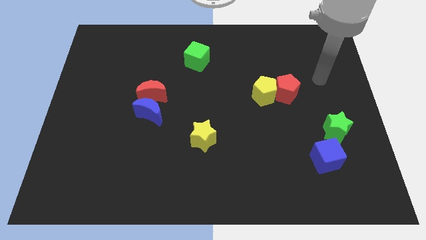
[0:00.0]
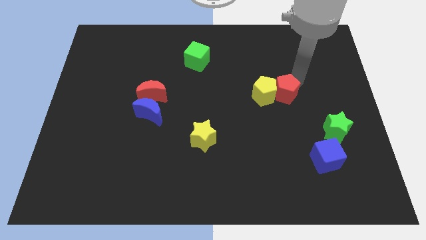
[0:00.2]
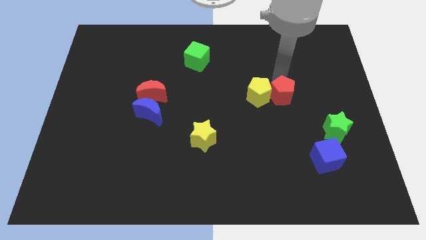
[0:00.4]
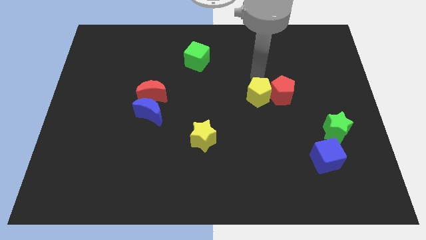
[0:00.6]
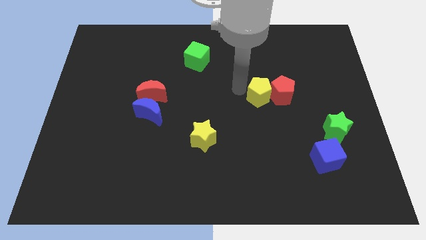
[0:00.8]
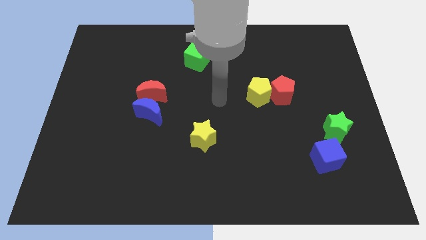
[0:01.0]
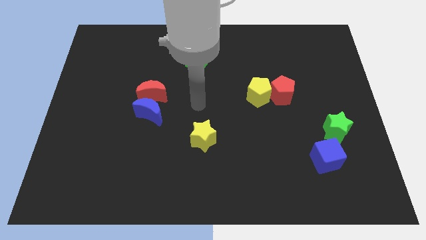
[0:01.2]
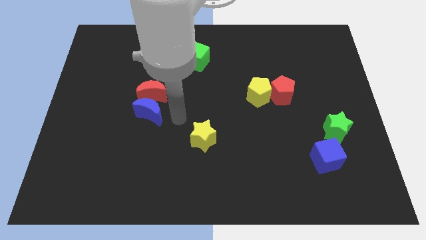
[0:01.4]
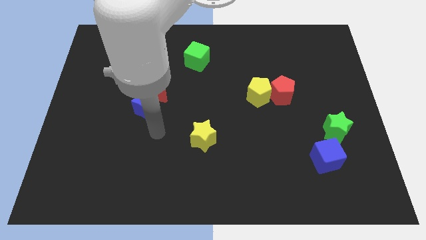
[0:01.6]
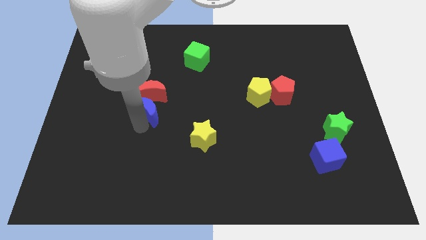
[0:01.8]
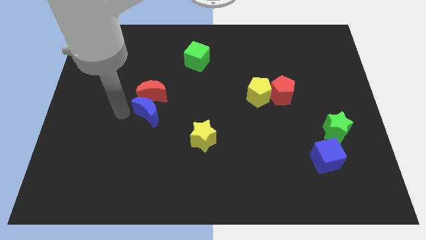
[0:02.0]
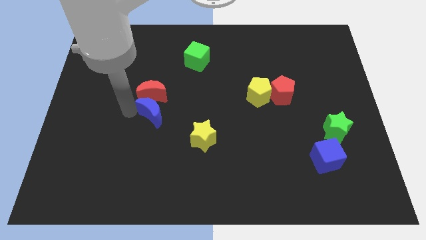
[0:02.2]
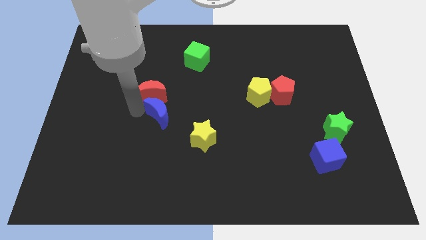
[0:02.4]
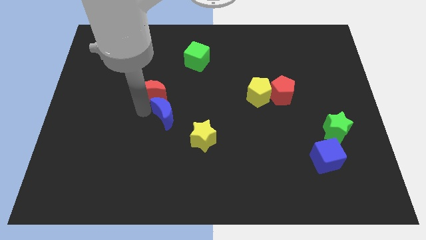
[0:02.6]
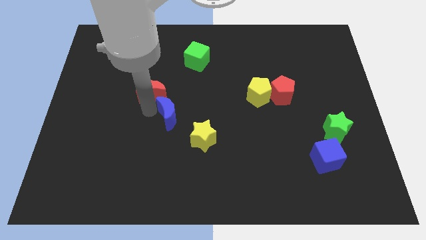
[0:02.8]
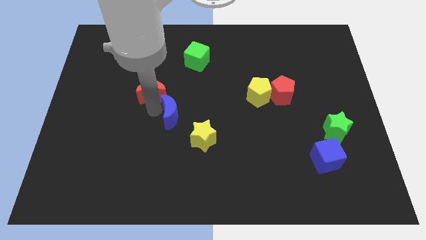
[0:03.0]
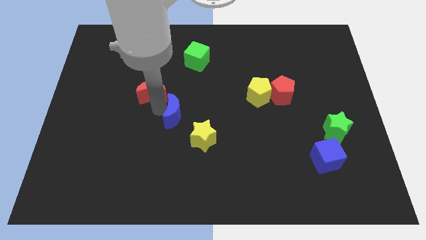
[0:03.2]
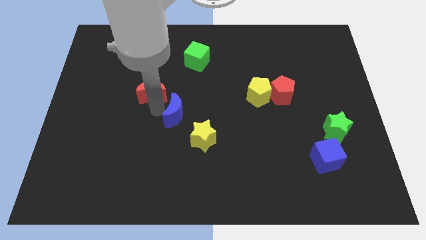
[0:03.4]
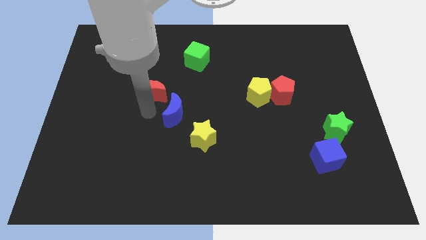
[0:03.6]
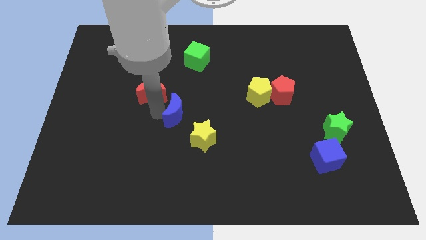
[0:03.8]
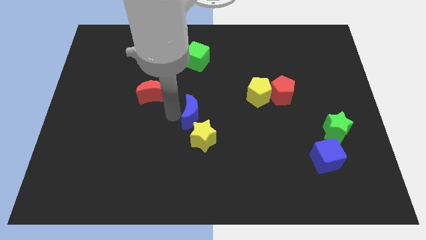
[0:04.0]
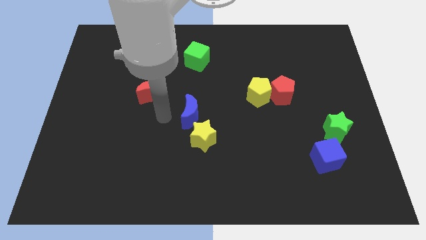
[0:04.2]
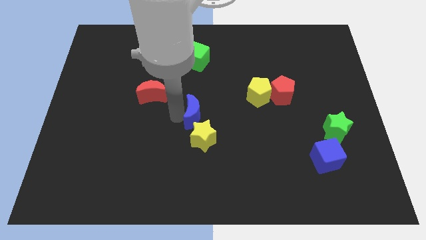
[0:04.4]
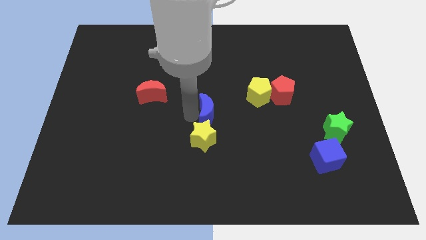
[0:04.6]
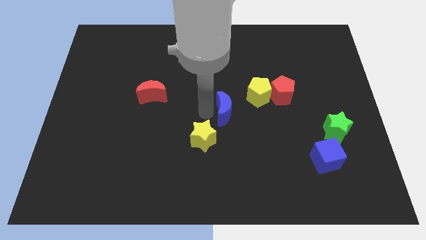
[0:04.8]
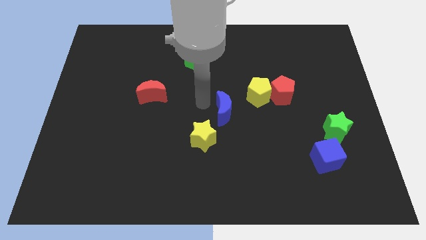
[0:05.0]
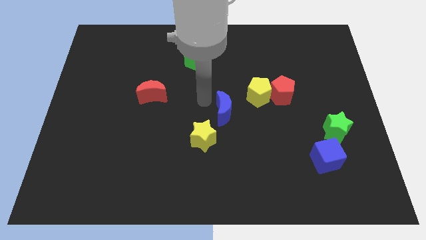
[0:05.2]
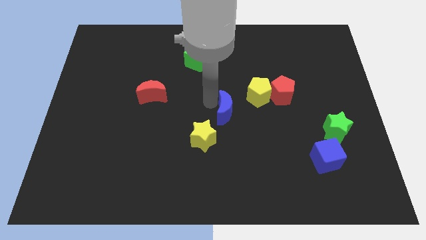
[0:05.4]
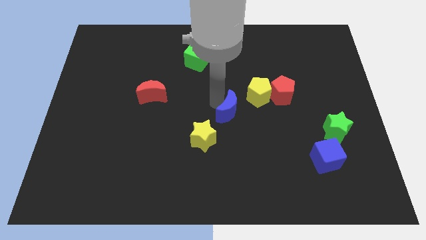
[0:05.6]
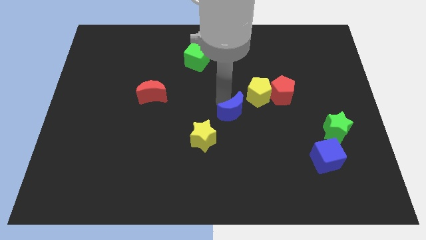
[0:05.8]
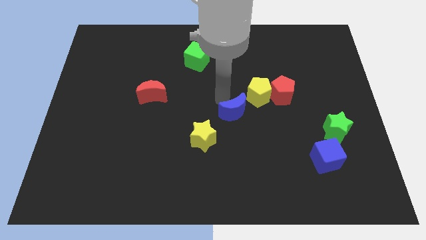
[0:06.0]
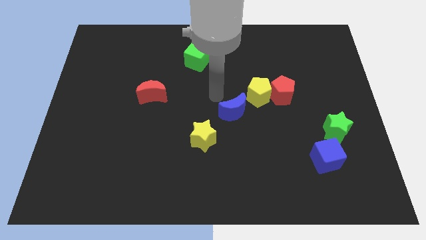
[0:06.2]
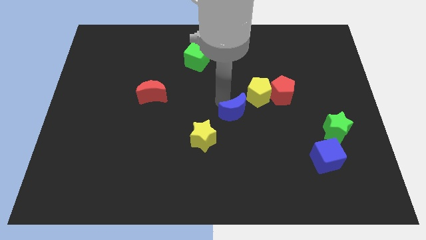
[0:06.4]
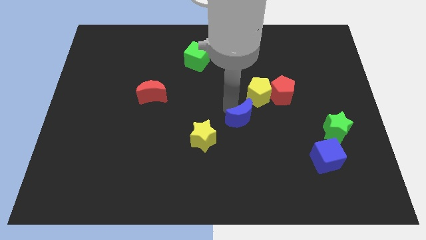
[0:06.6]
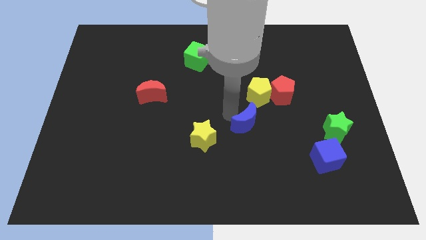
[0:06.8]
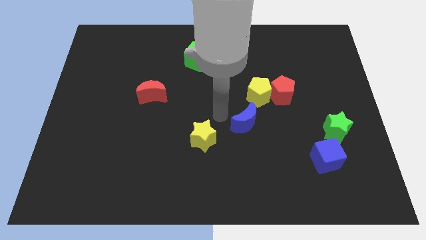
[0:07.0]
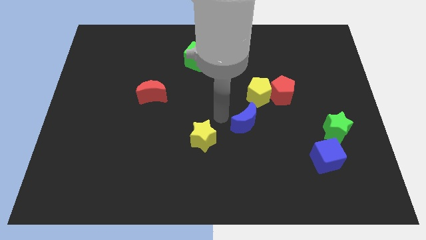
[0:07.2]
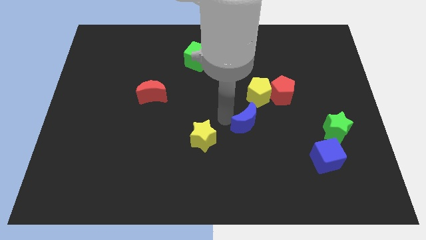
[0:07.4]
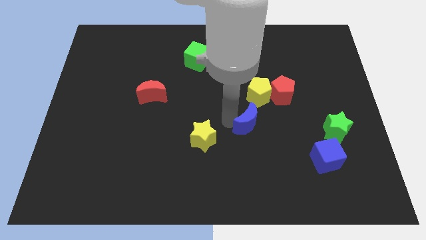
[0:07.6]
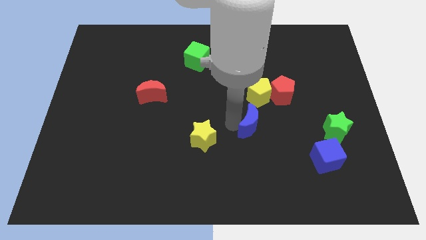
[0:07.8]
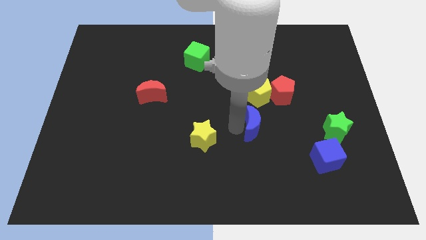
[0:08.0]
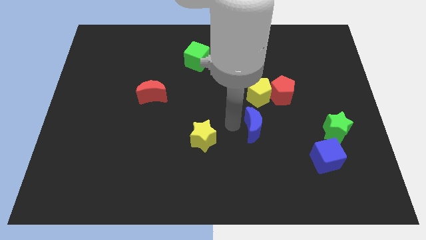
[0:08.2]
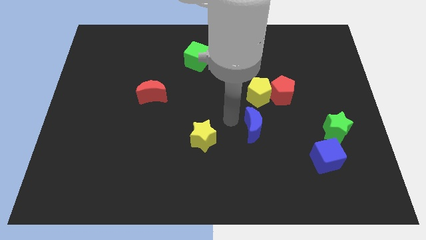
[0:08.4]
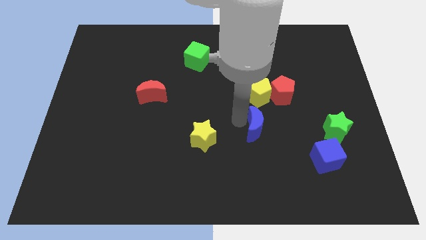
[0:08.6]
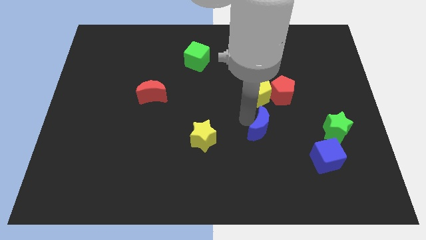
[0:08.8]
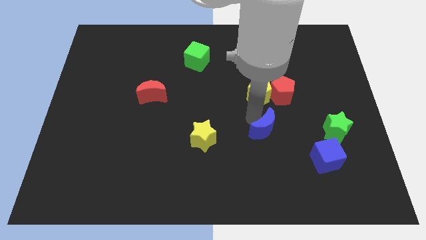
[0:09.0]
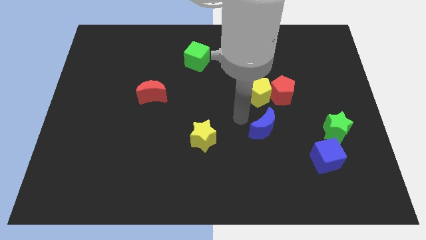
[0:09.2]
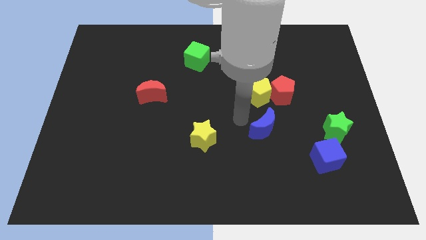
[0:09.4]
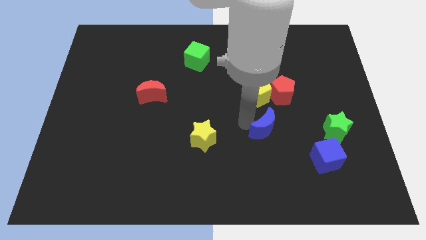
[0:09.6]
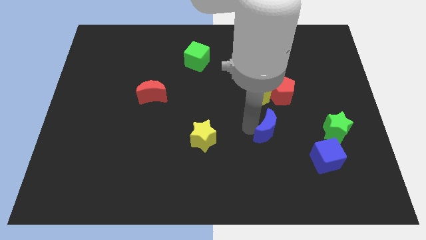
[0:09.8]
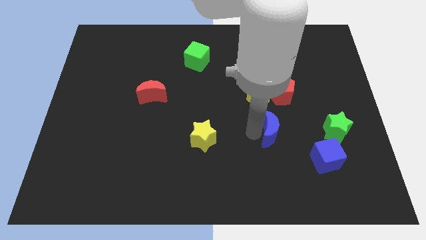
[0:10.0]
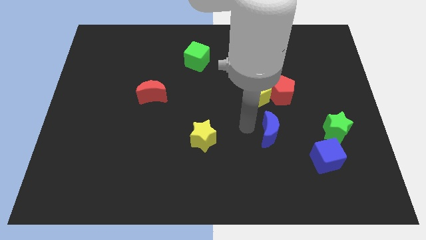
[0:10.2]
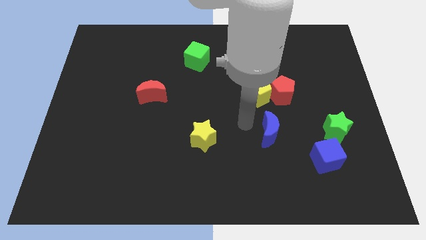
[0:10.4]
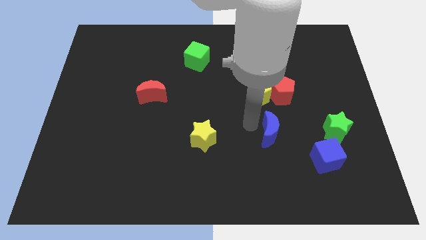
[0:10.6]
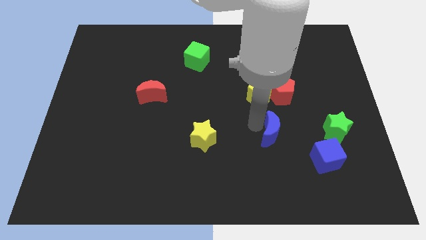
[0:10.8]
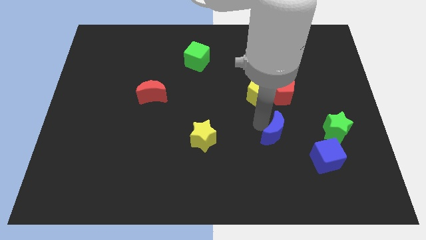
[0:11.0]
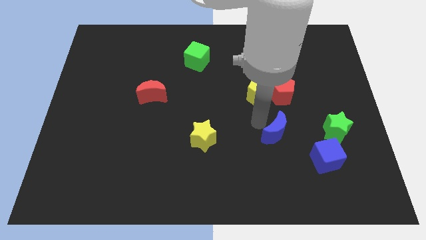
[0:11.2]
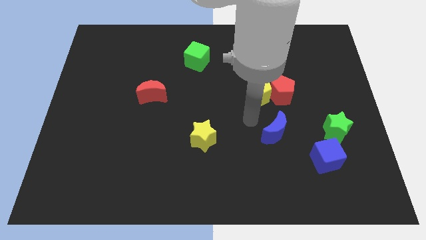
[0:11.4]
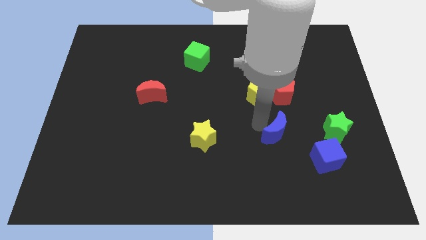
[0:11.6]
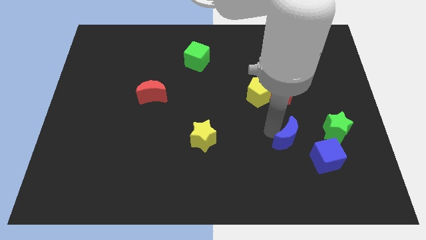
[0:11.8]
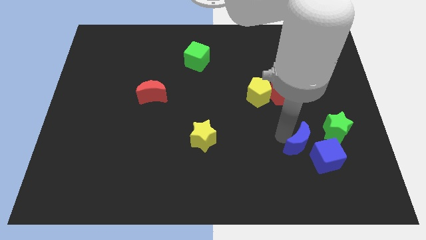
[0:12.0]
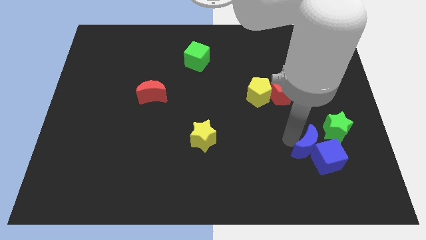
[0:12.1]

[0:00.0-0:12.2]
put the blue moon next to the blue cube

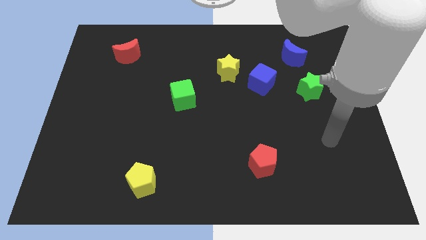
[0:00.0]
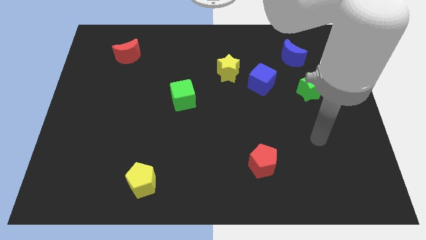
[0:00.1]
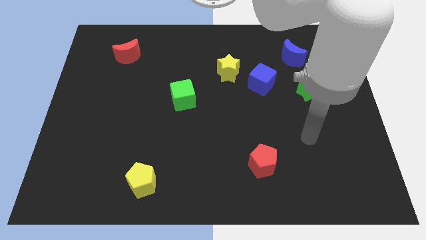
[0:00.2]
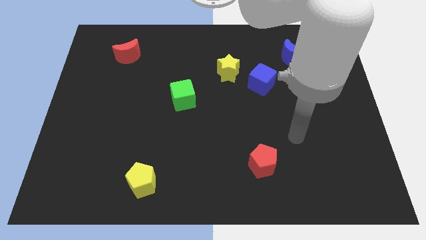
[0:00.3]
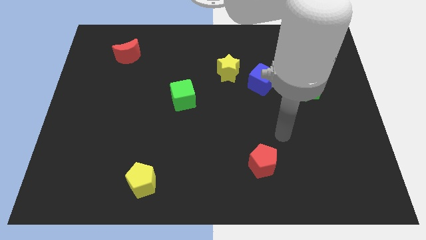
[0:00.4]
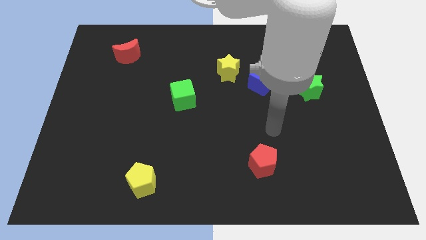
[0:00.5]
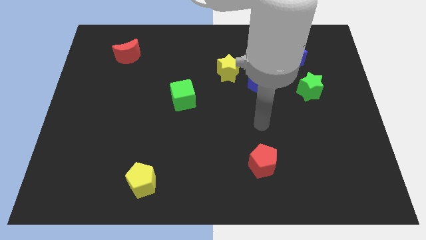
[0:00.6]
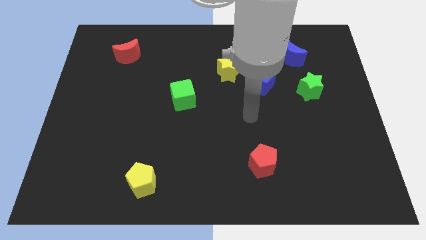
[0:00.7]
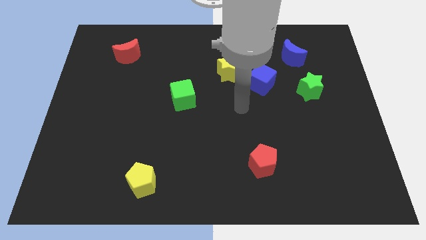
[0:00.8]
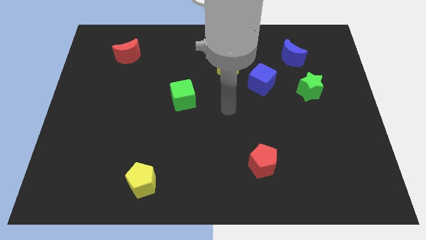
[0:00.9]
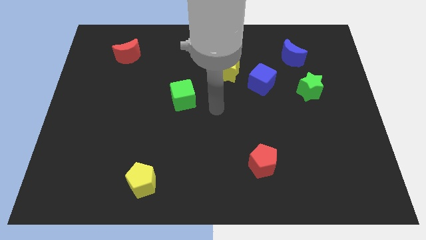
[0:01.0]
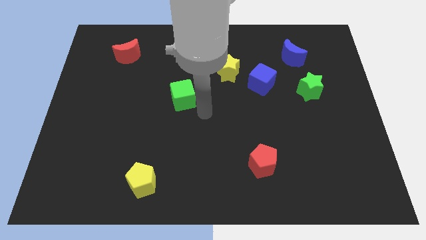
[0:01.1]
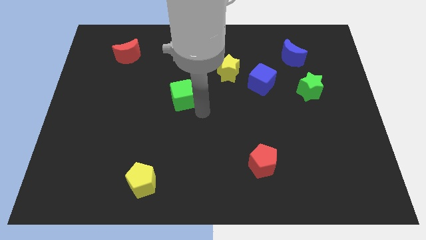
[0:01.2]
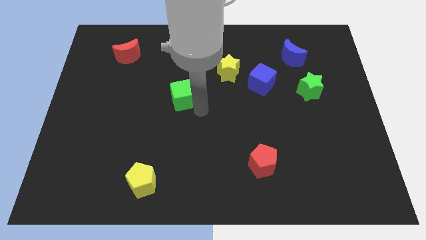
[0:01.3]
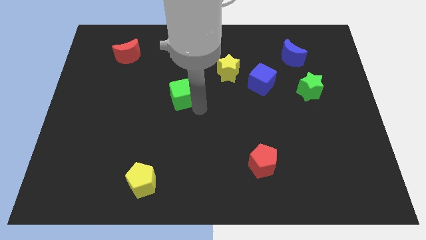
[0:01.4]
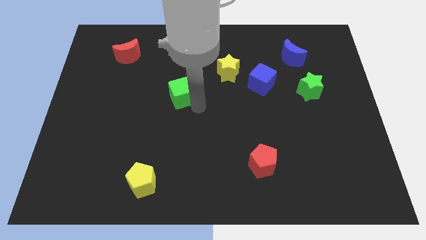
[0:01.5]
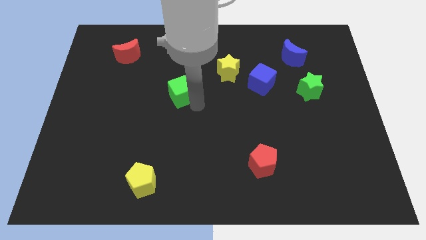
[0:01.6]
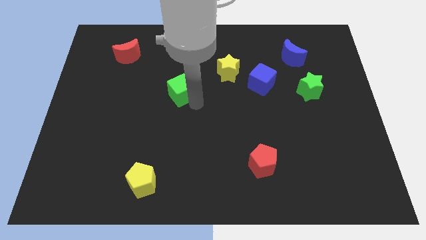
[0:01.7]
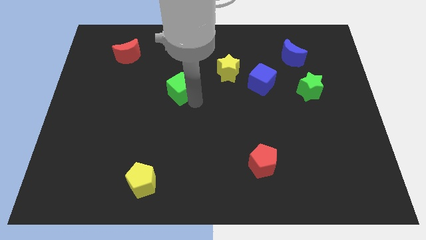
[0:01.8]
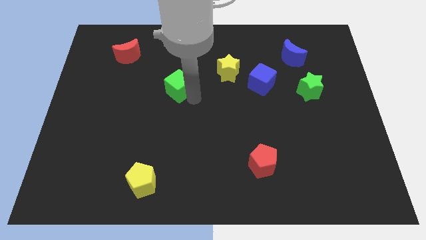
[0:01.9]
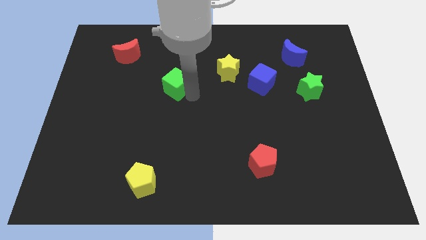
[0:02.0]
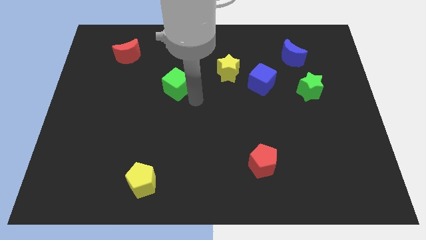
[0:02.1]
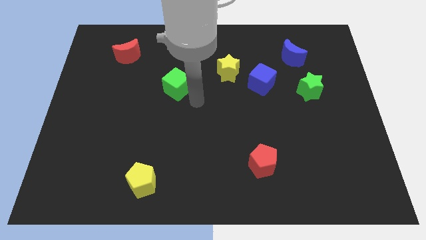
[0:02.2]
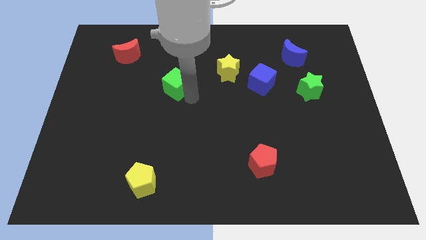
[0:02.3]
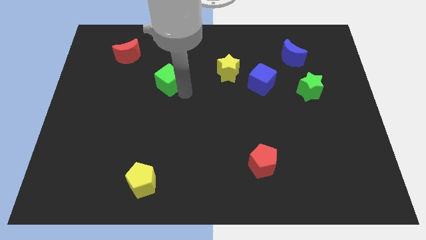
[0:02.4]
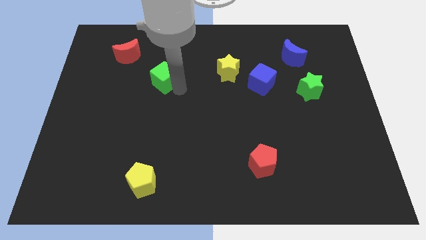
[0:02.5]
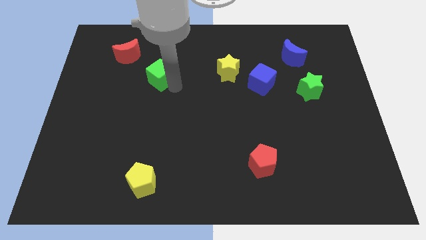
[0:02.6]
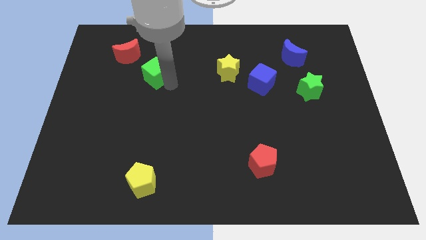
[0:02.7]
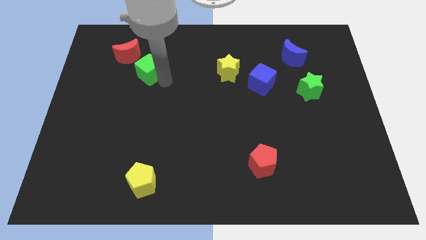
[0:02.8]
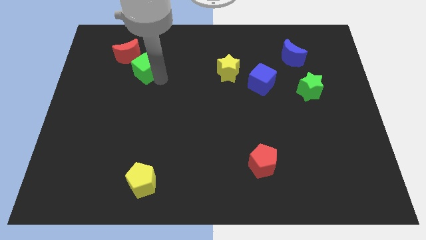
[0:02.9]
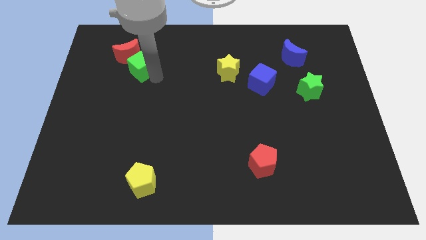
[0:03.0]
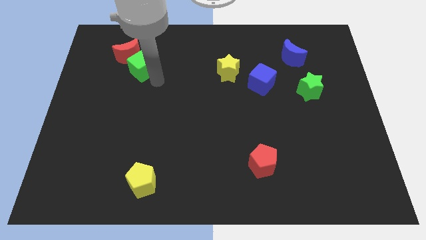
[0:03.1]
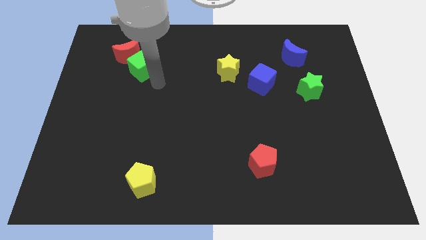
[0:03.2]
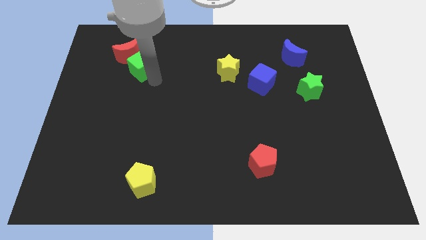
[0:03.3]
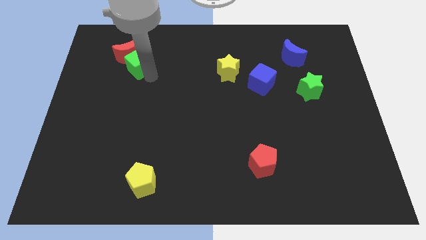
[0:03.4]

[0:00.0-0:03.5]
move the green cube to the red moon
